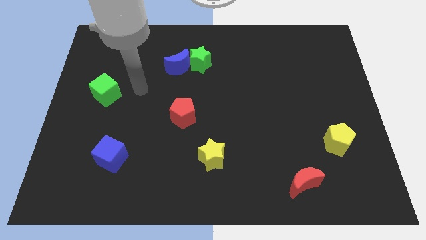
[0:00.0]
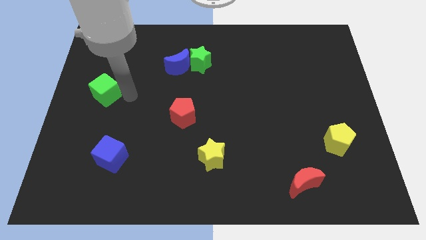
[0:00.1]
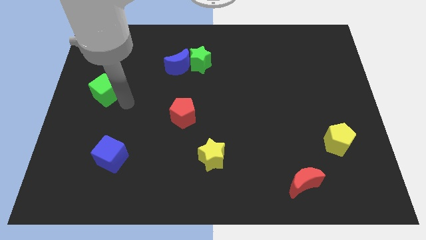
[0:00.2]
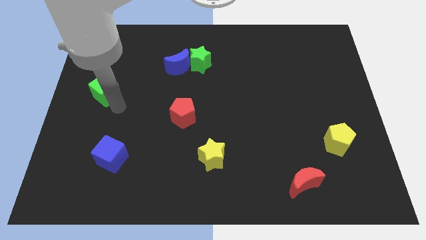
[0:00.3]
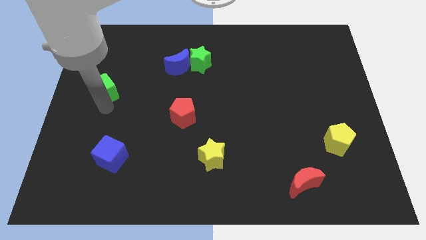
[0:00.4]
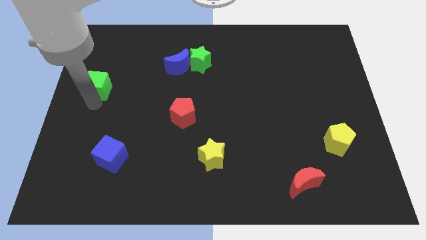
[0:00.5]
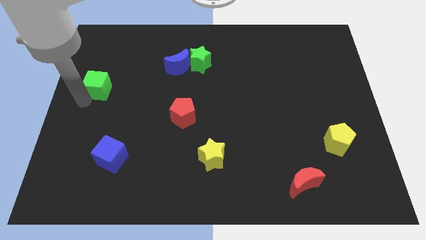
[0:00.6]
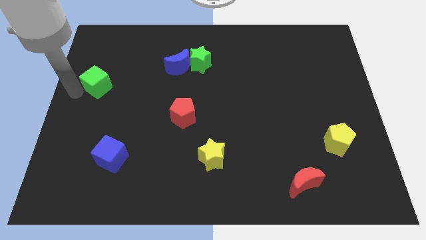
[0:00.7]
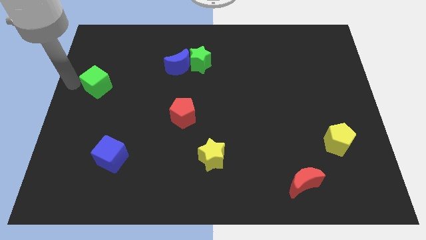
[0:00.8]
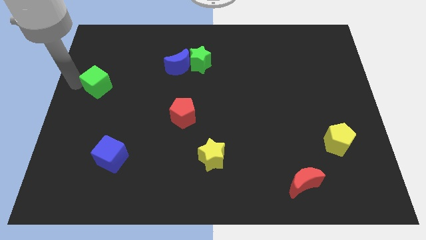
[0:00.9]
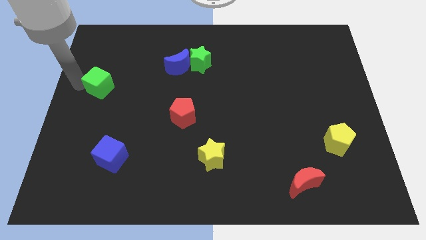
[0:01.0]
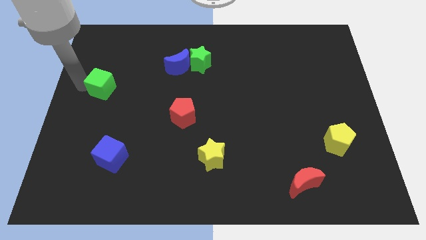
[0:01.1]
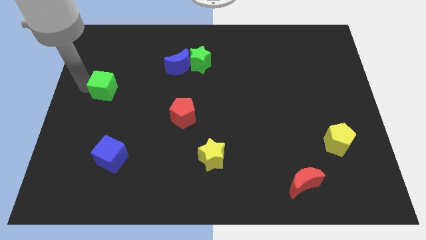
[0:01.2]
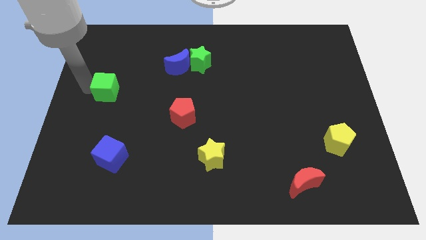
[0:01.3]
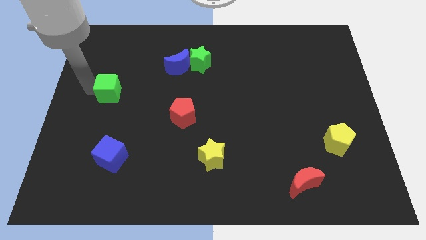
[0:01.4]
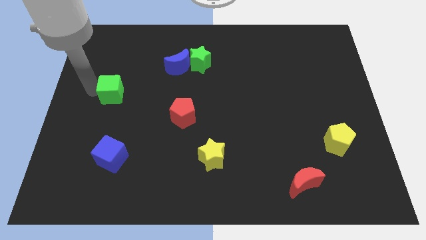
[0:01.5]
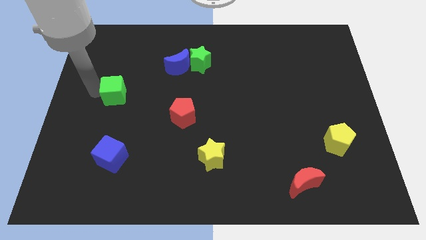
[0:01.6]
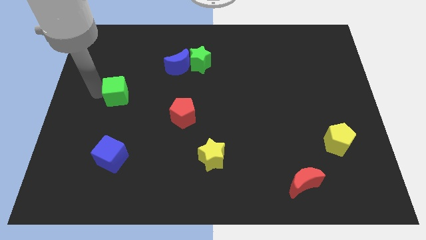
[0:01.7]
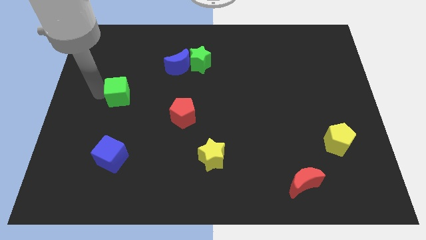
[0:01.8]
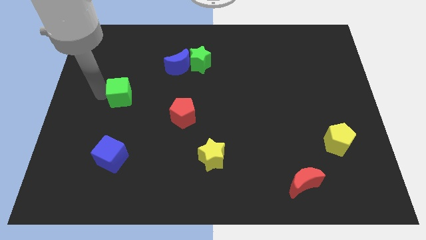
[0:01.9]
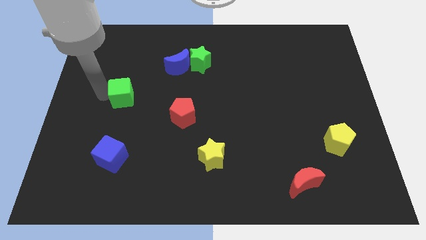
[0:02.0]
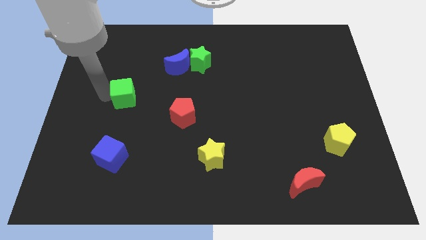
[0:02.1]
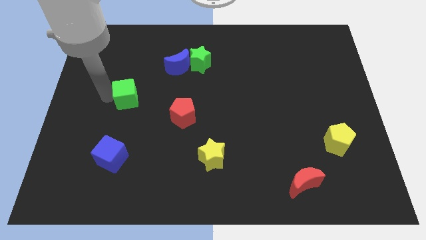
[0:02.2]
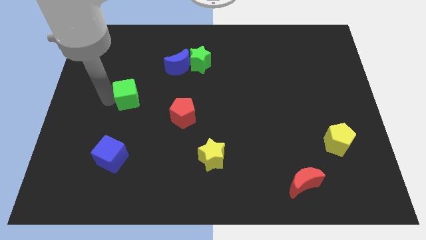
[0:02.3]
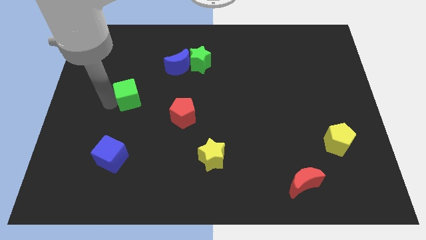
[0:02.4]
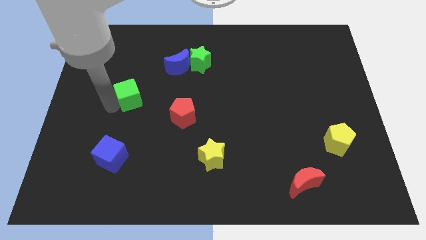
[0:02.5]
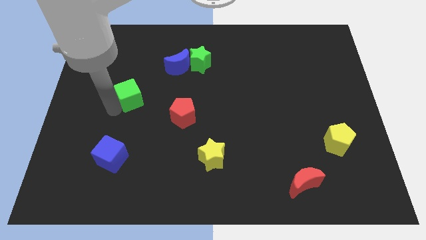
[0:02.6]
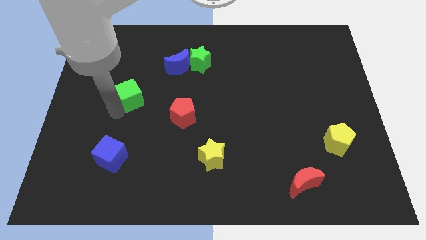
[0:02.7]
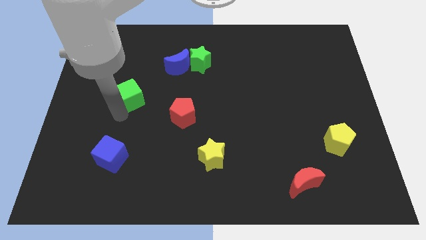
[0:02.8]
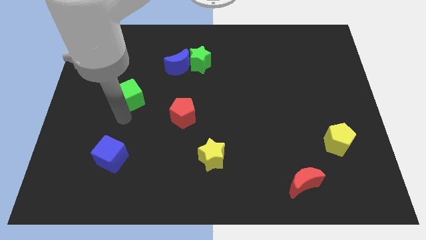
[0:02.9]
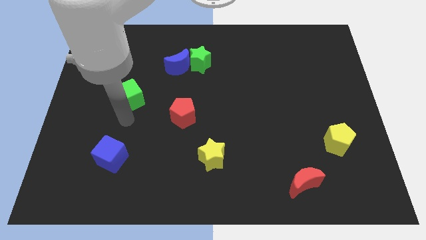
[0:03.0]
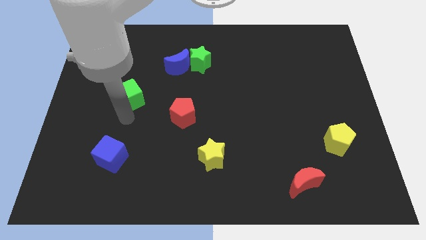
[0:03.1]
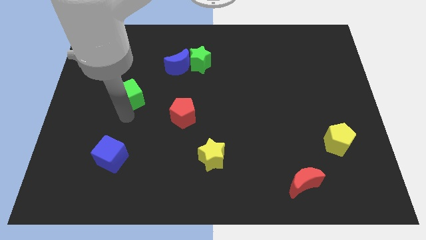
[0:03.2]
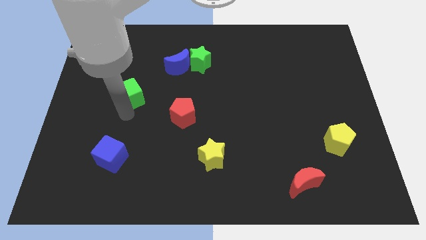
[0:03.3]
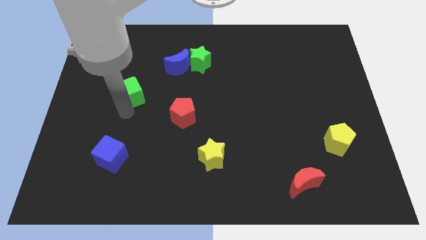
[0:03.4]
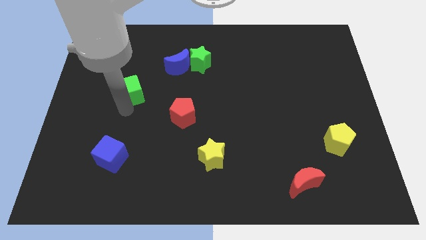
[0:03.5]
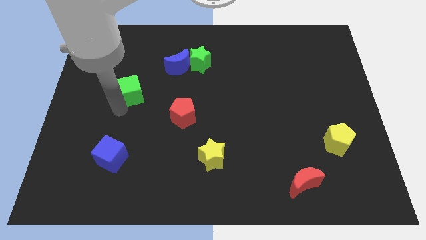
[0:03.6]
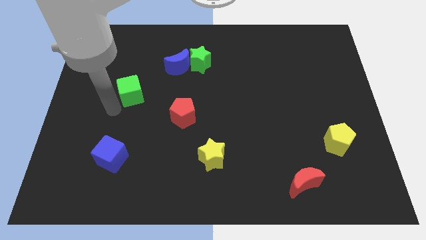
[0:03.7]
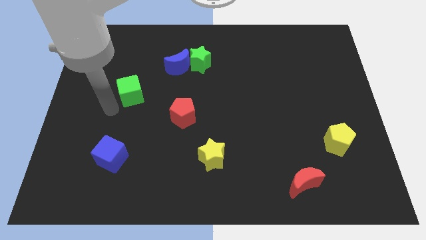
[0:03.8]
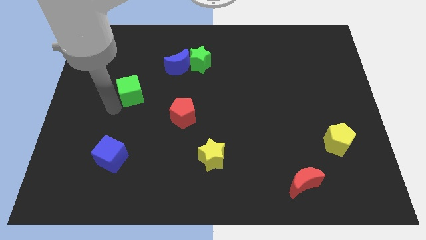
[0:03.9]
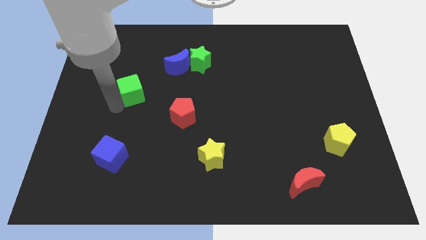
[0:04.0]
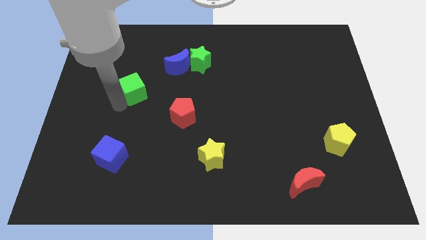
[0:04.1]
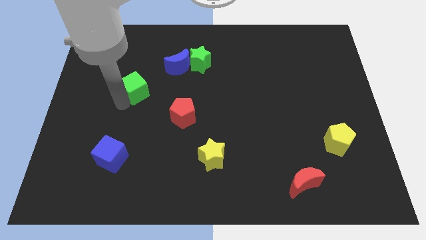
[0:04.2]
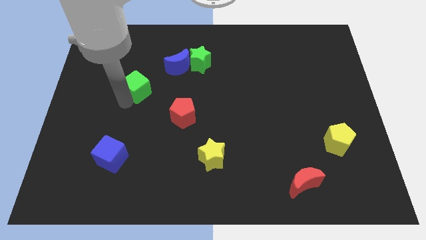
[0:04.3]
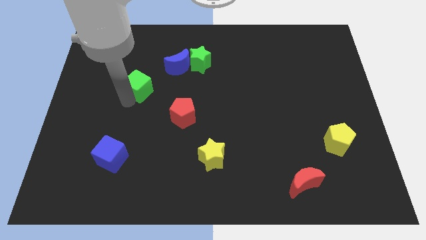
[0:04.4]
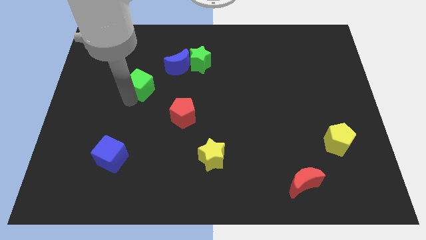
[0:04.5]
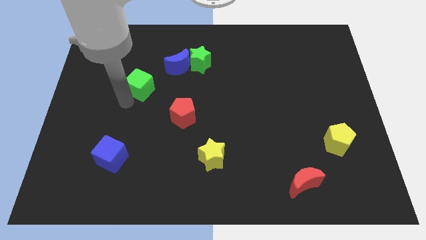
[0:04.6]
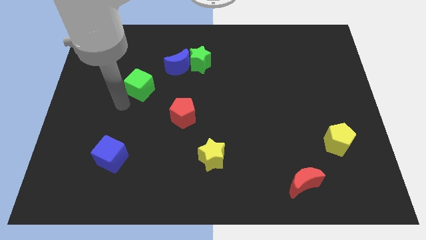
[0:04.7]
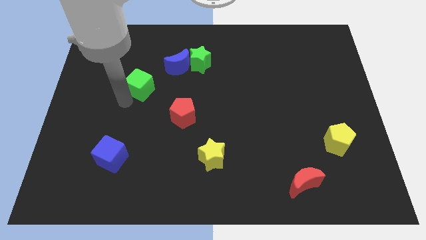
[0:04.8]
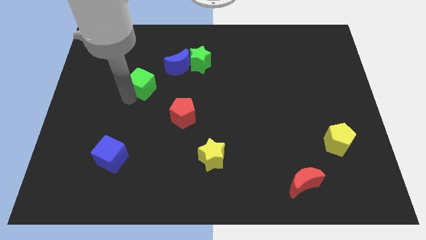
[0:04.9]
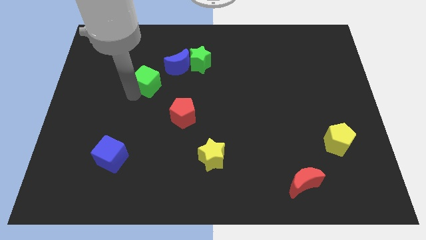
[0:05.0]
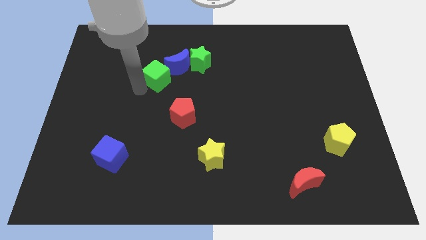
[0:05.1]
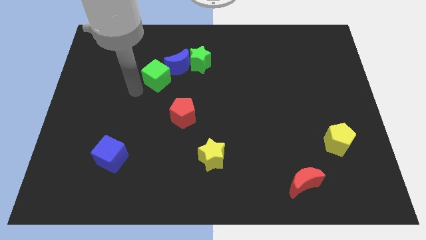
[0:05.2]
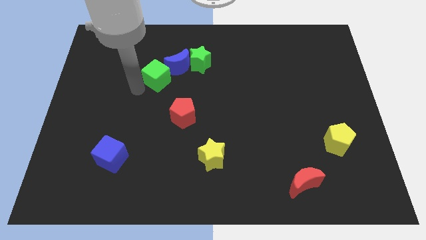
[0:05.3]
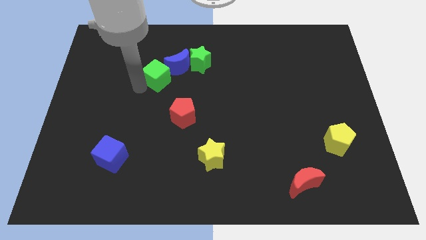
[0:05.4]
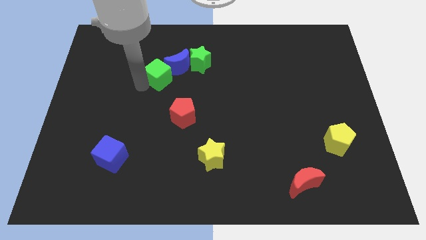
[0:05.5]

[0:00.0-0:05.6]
slide the green cube to the blue moon
